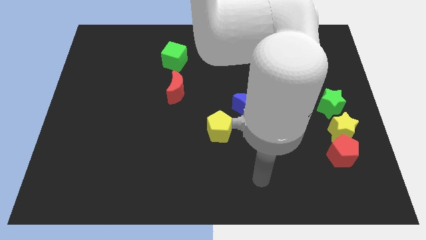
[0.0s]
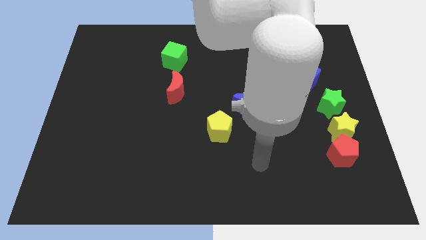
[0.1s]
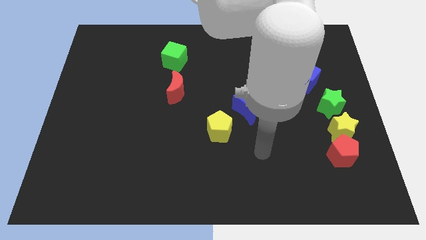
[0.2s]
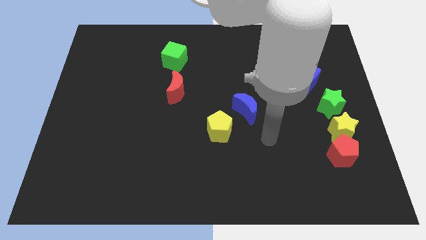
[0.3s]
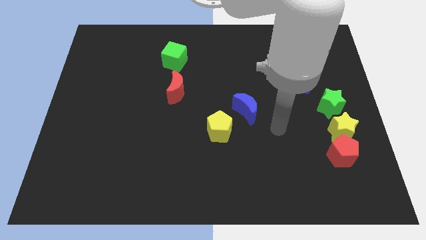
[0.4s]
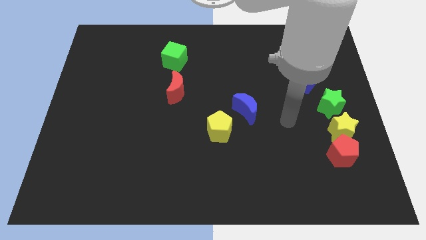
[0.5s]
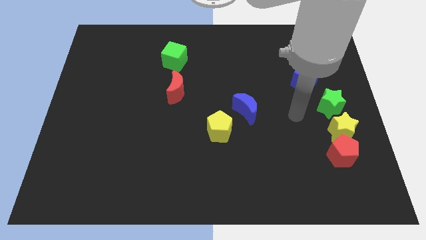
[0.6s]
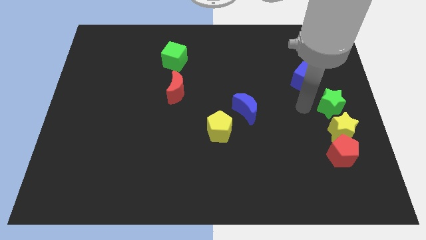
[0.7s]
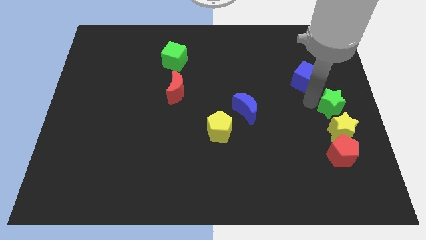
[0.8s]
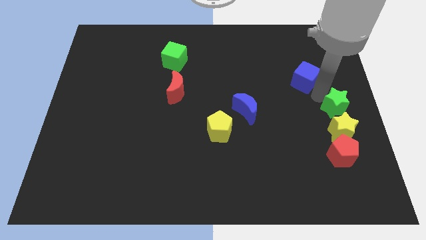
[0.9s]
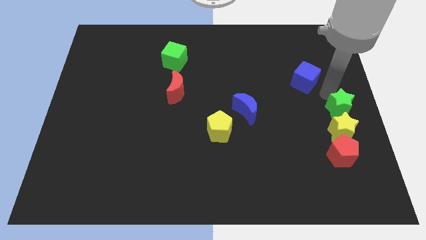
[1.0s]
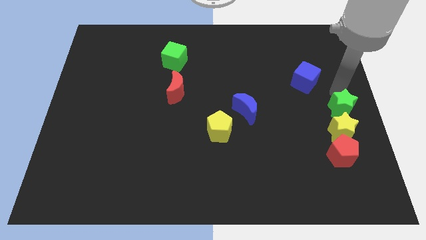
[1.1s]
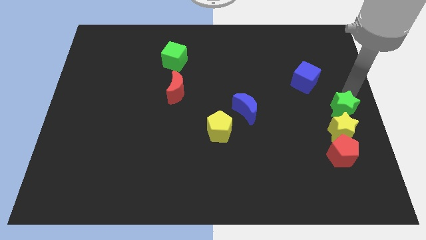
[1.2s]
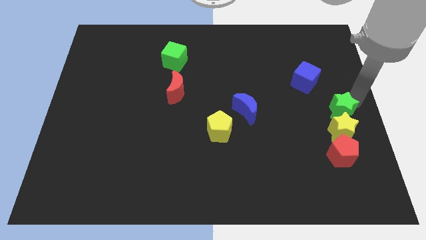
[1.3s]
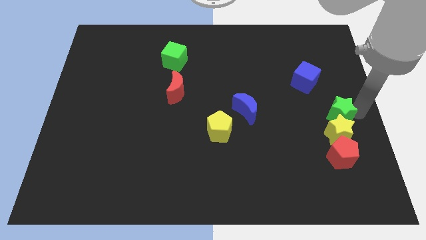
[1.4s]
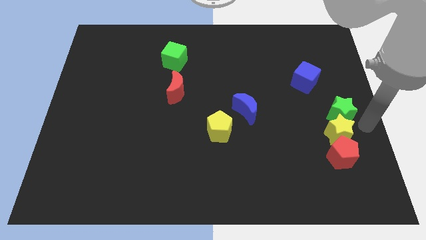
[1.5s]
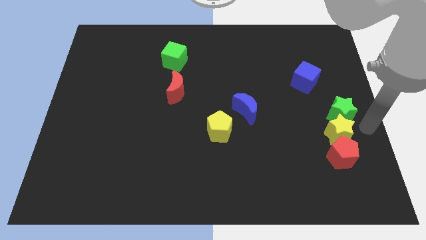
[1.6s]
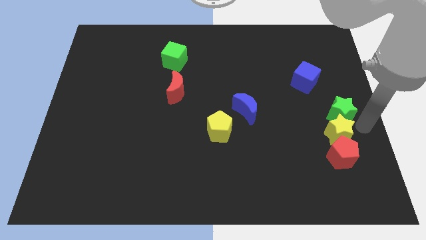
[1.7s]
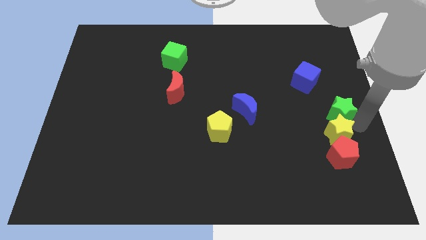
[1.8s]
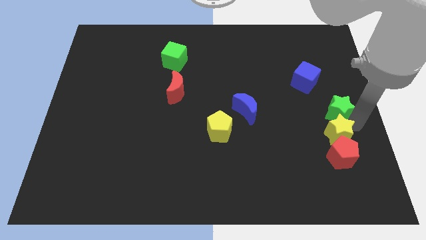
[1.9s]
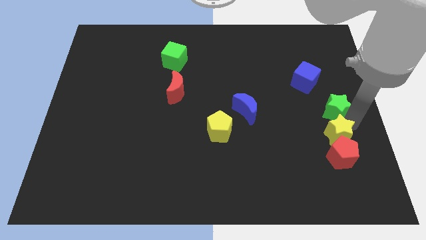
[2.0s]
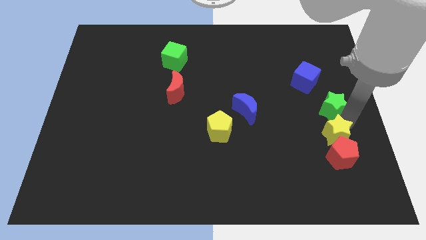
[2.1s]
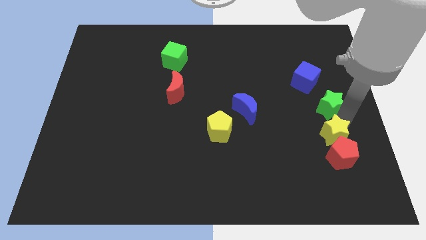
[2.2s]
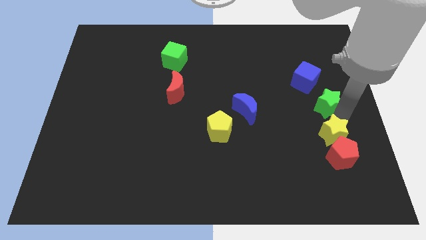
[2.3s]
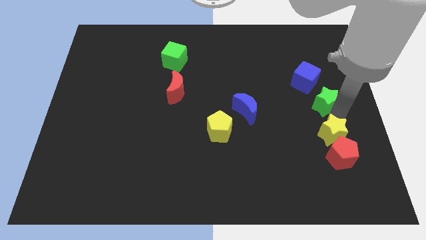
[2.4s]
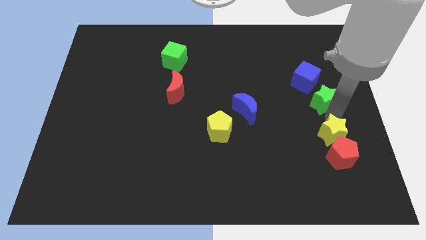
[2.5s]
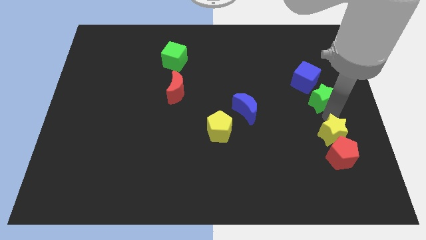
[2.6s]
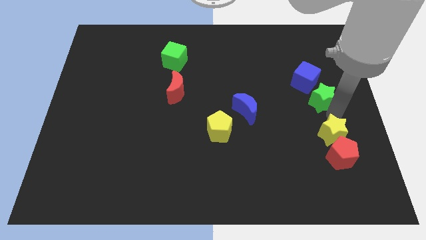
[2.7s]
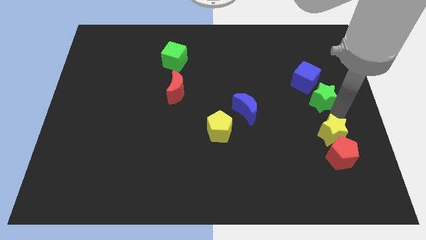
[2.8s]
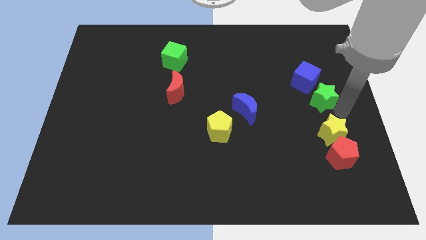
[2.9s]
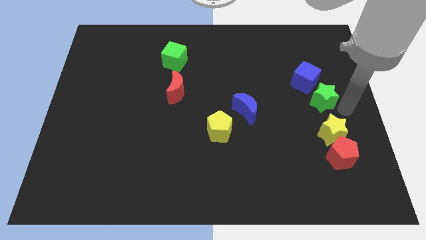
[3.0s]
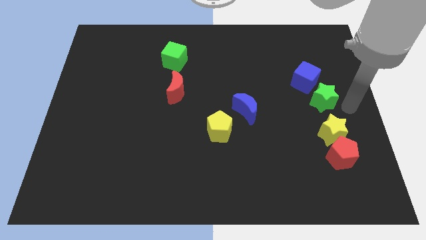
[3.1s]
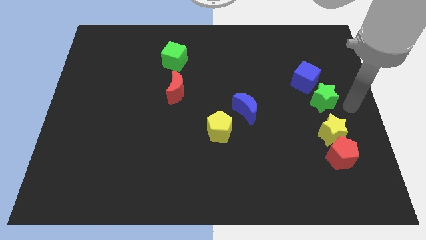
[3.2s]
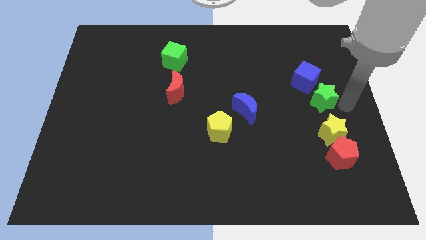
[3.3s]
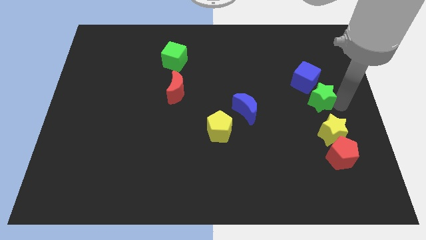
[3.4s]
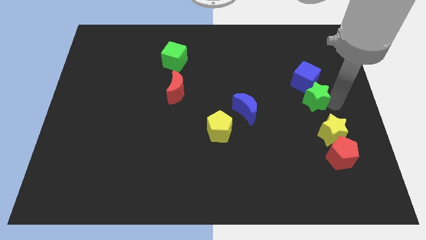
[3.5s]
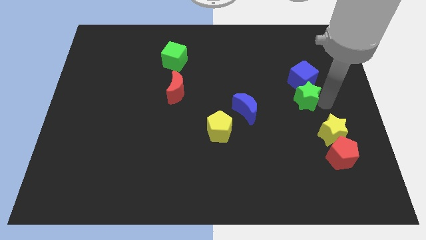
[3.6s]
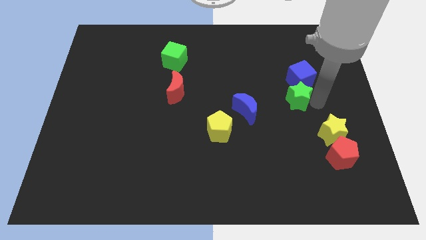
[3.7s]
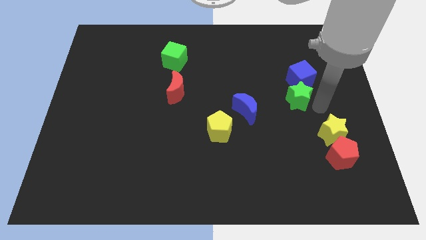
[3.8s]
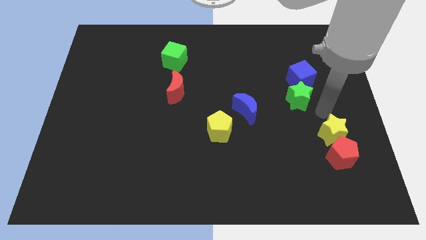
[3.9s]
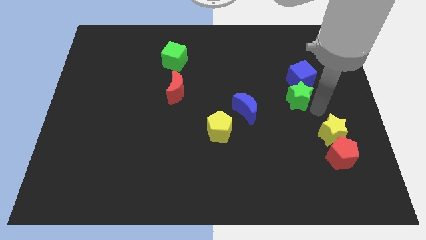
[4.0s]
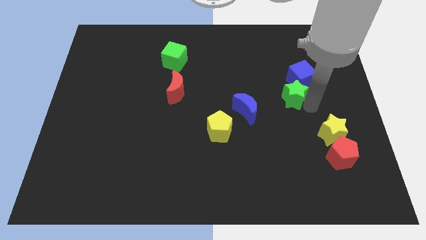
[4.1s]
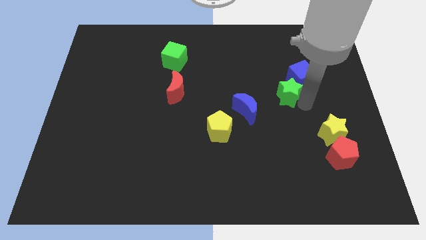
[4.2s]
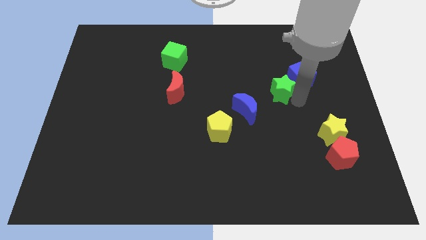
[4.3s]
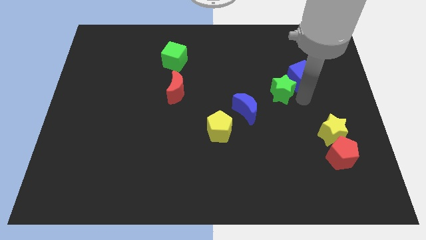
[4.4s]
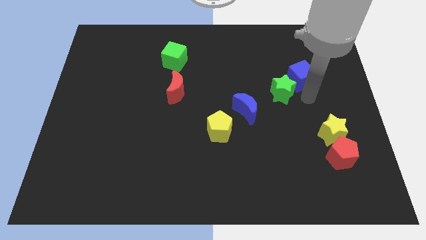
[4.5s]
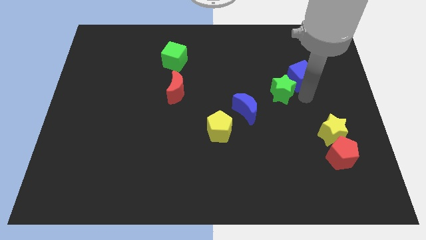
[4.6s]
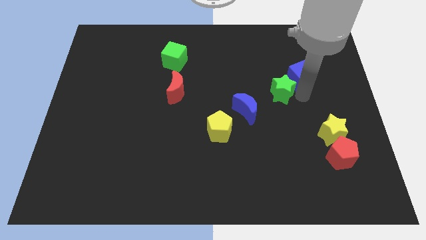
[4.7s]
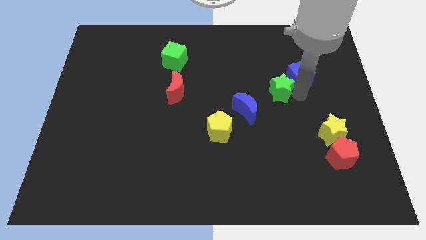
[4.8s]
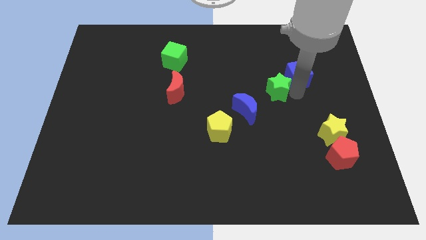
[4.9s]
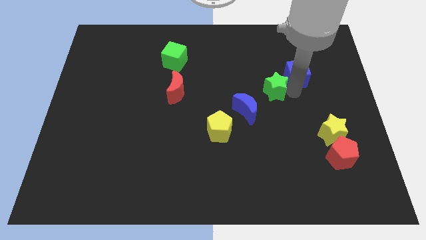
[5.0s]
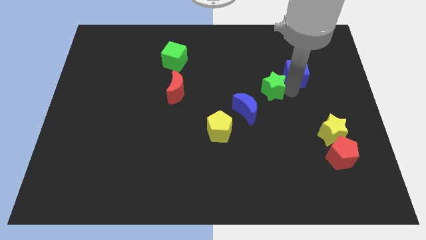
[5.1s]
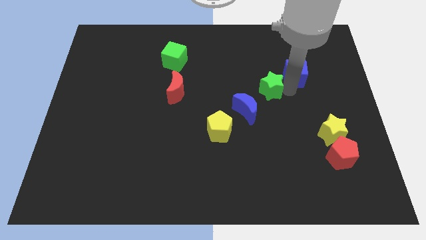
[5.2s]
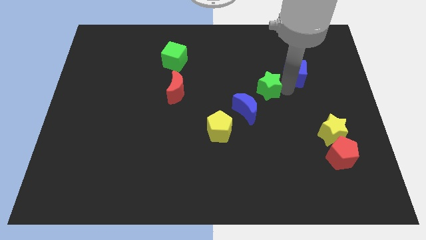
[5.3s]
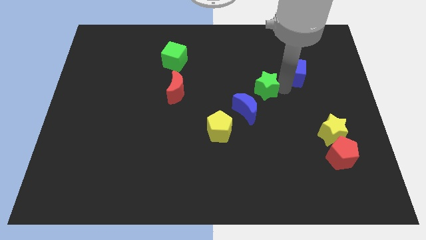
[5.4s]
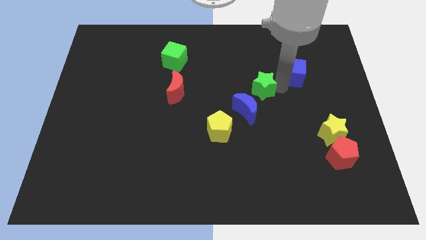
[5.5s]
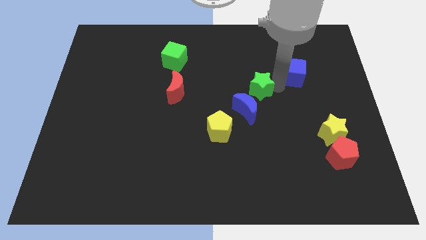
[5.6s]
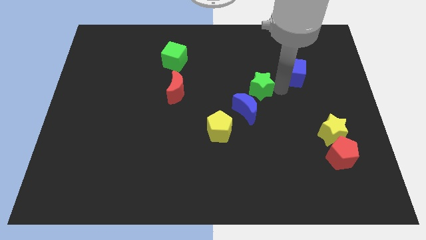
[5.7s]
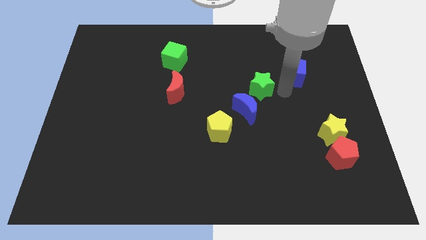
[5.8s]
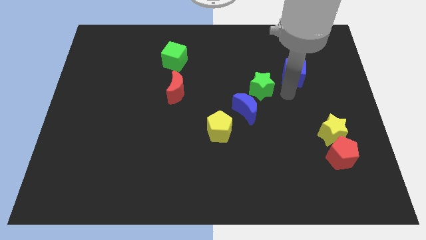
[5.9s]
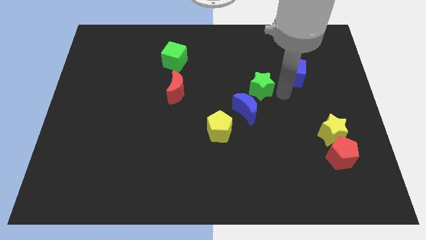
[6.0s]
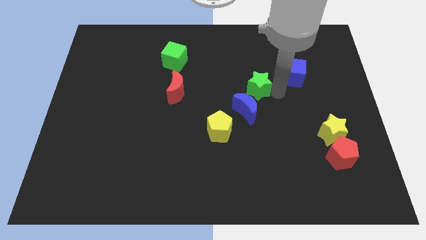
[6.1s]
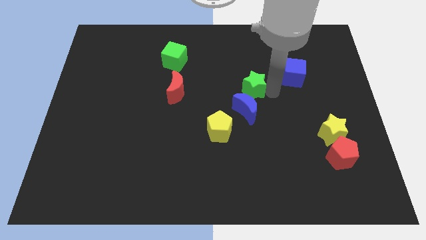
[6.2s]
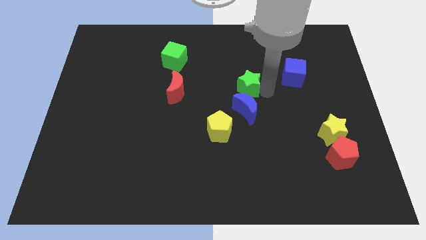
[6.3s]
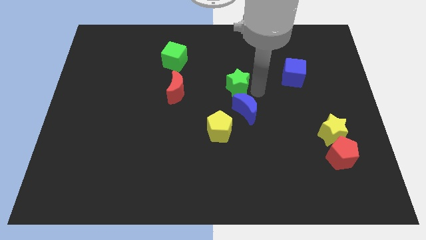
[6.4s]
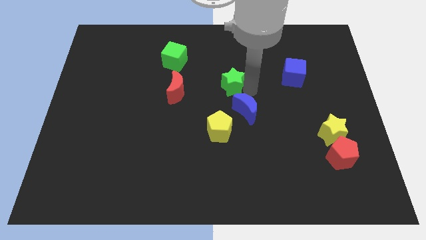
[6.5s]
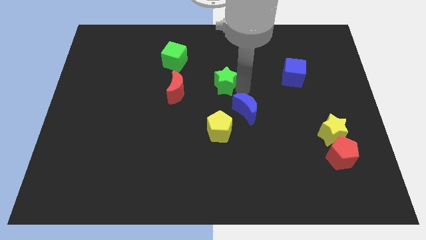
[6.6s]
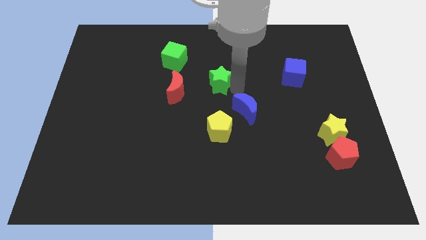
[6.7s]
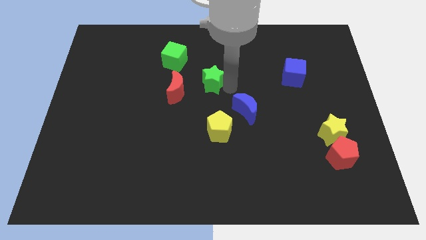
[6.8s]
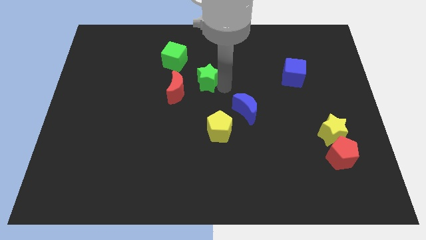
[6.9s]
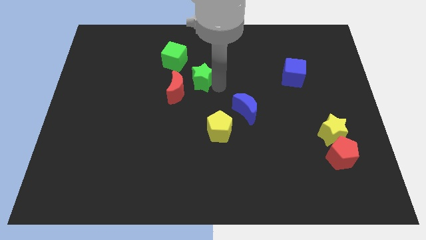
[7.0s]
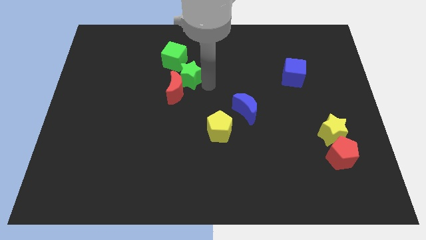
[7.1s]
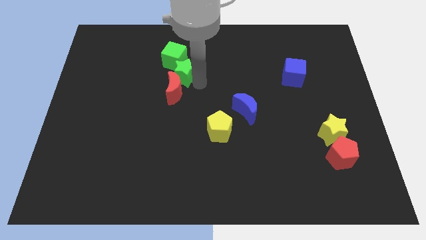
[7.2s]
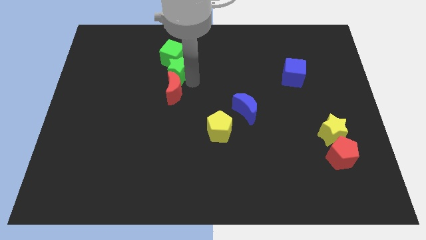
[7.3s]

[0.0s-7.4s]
move the green star to the green cube

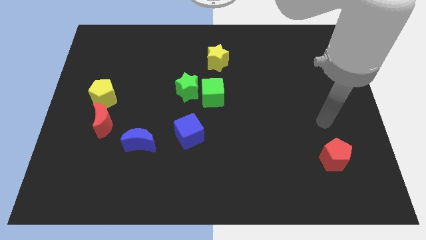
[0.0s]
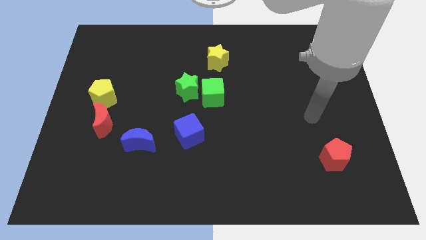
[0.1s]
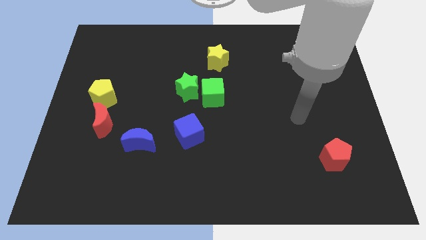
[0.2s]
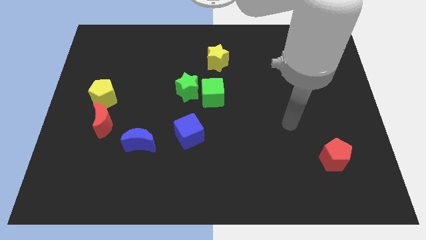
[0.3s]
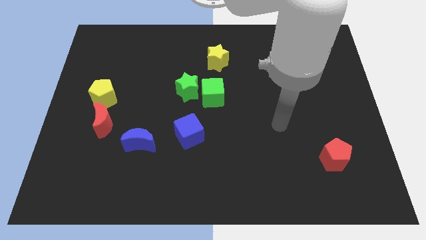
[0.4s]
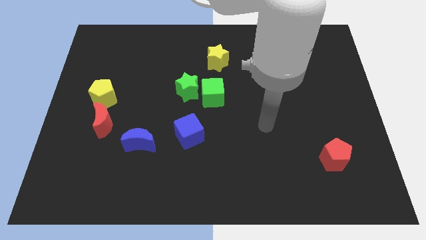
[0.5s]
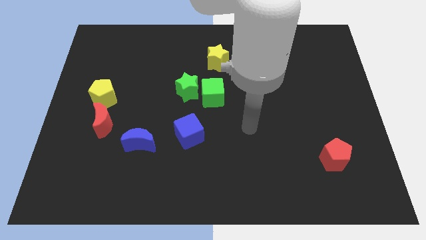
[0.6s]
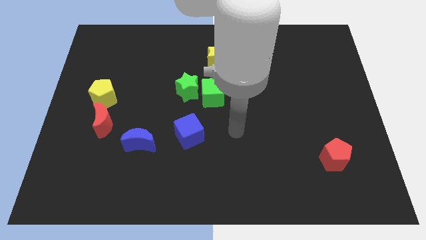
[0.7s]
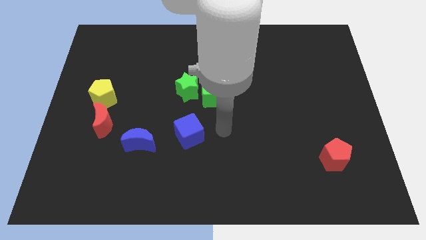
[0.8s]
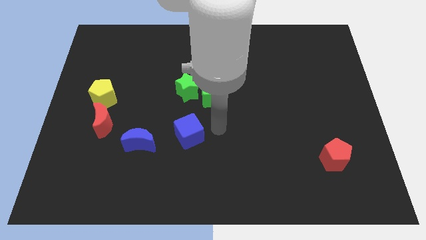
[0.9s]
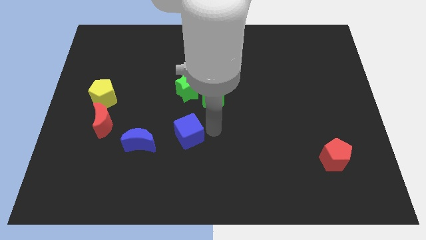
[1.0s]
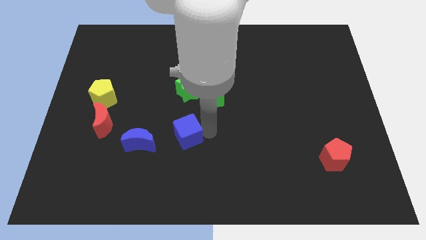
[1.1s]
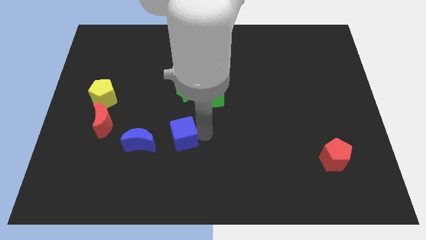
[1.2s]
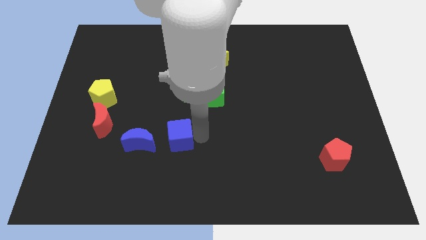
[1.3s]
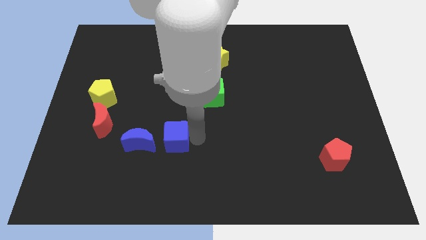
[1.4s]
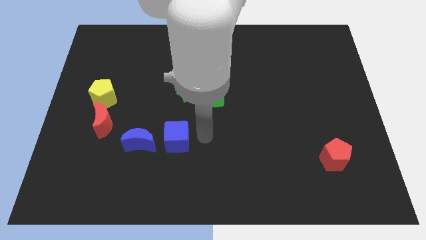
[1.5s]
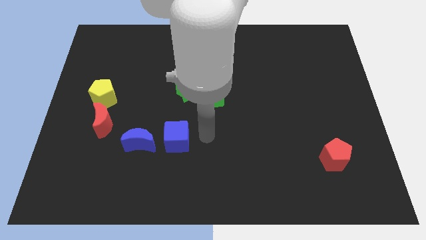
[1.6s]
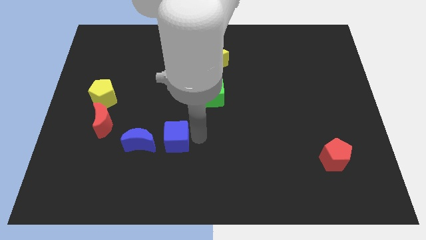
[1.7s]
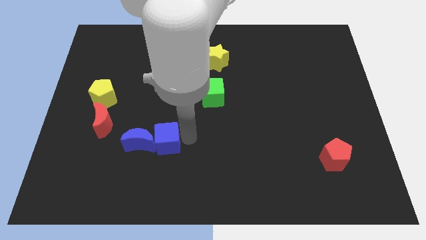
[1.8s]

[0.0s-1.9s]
push the blue cube close to the blue moon
